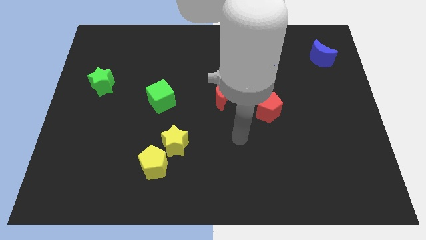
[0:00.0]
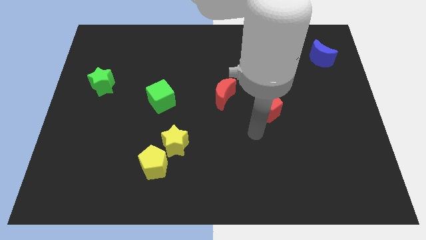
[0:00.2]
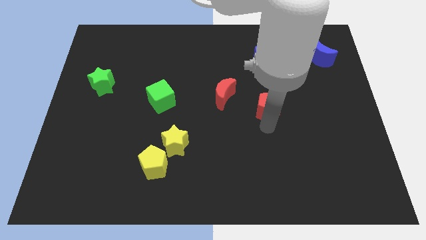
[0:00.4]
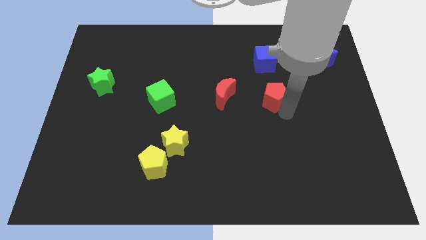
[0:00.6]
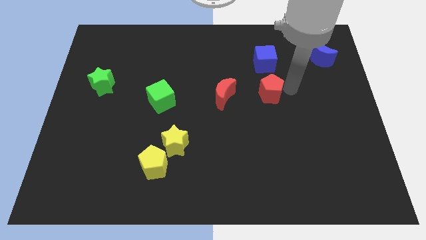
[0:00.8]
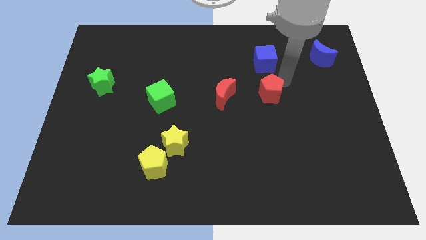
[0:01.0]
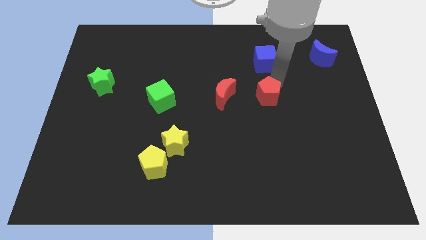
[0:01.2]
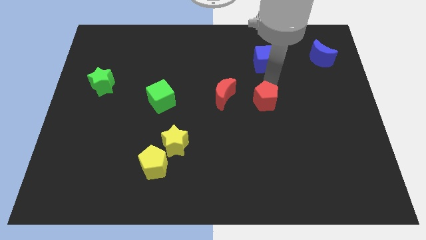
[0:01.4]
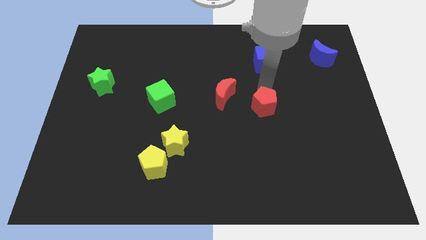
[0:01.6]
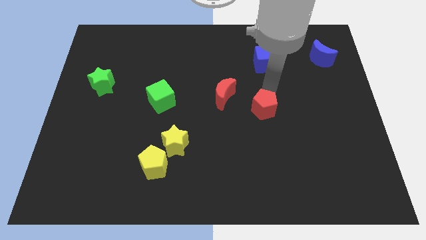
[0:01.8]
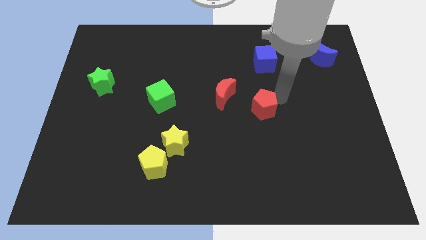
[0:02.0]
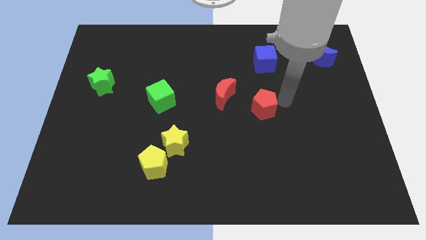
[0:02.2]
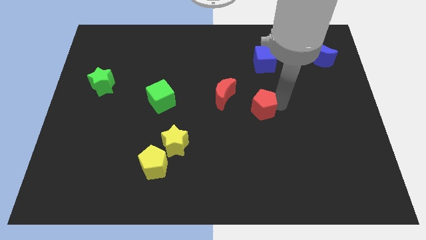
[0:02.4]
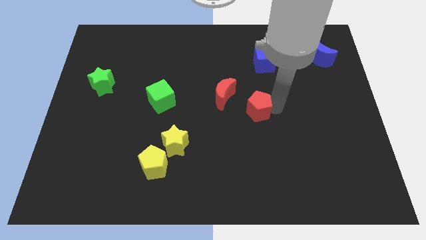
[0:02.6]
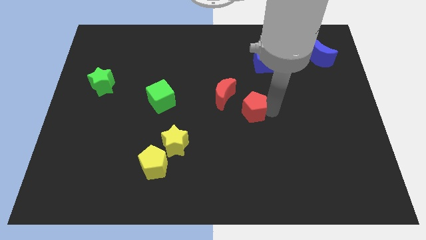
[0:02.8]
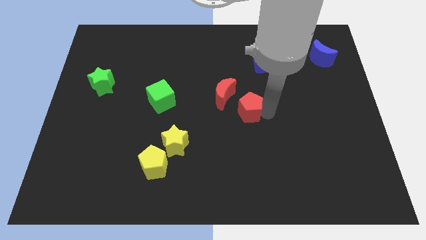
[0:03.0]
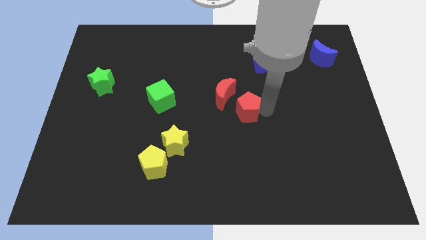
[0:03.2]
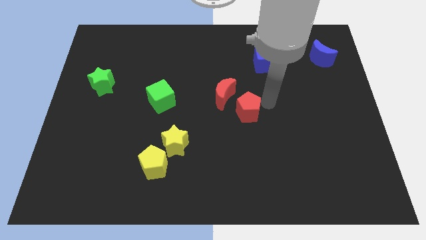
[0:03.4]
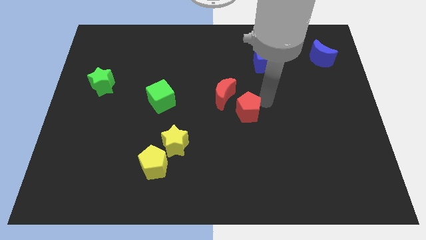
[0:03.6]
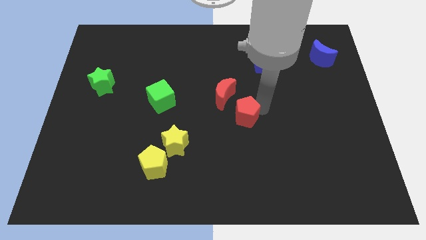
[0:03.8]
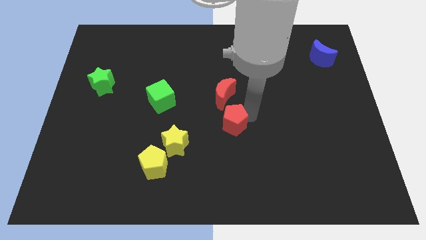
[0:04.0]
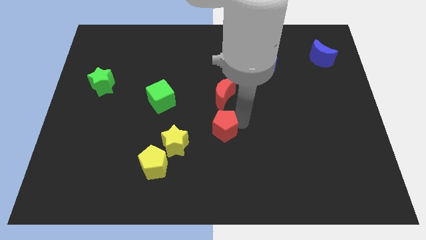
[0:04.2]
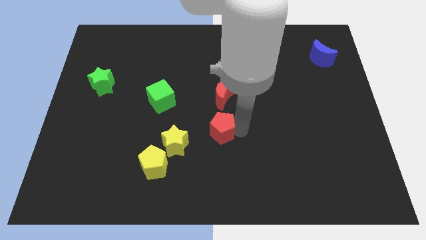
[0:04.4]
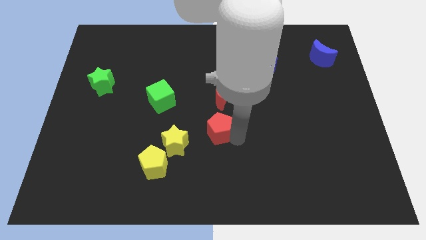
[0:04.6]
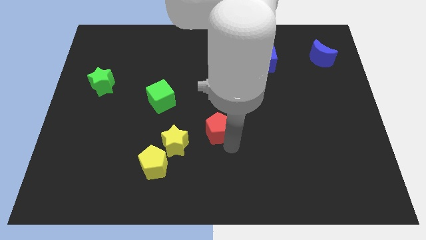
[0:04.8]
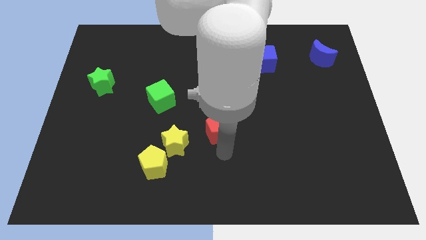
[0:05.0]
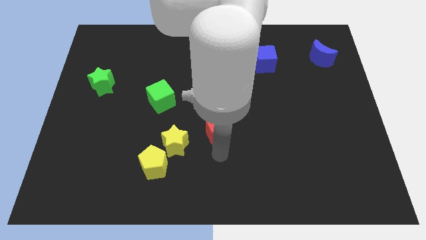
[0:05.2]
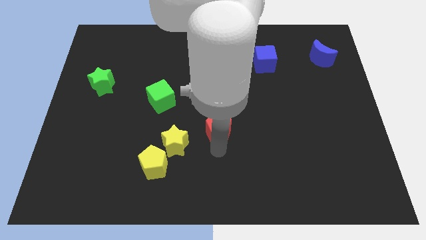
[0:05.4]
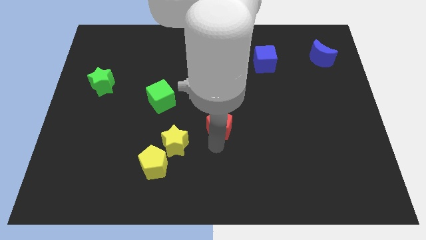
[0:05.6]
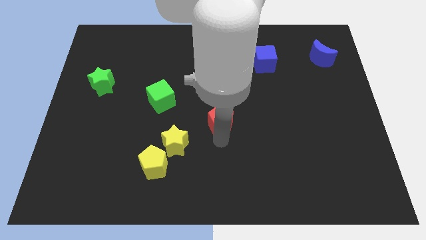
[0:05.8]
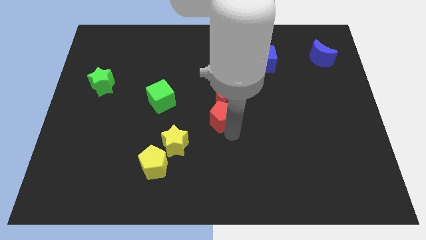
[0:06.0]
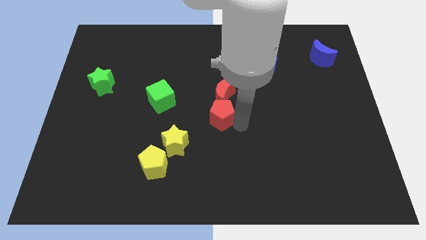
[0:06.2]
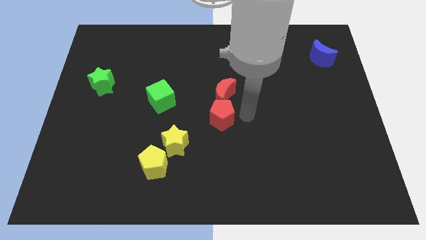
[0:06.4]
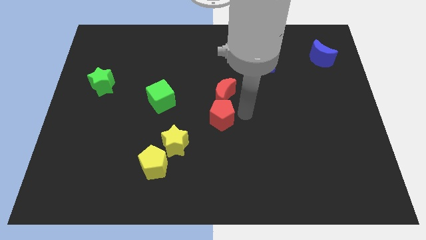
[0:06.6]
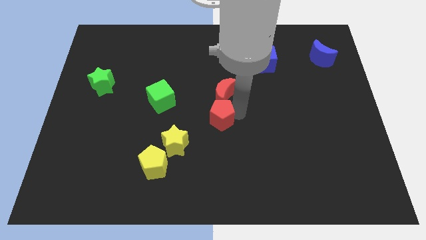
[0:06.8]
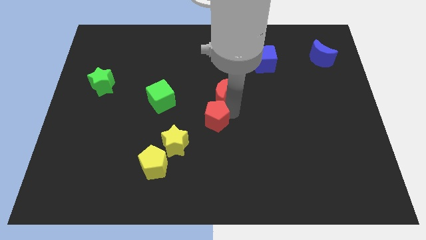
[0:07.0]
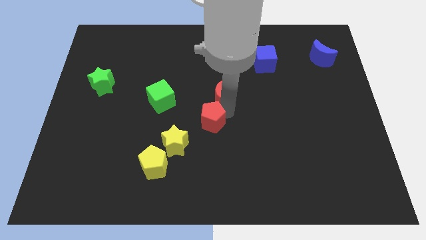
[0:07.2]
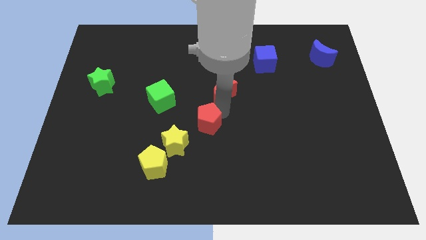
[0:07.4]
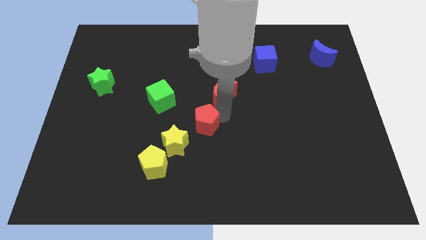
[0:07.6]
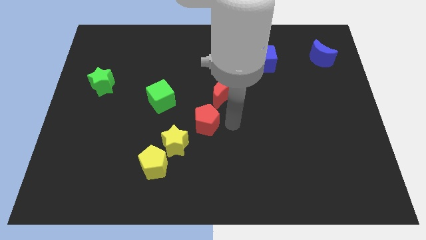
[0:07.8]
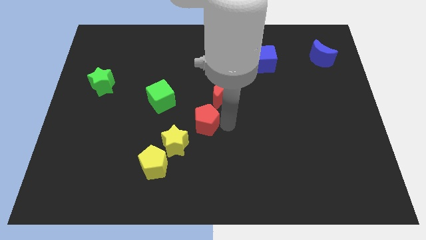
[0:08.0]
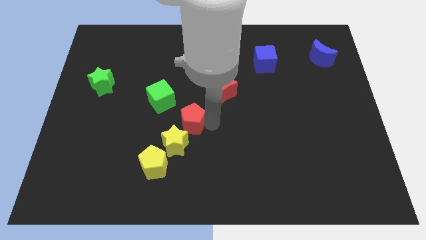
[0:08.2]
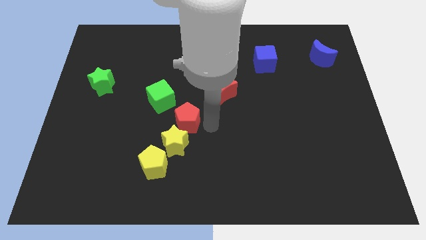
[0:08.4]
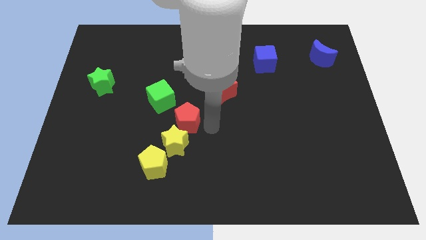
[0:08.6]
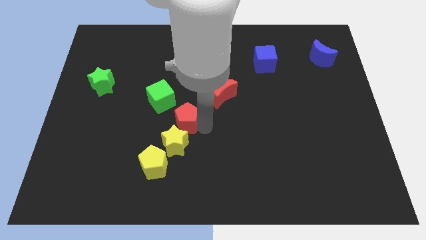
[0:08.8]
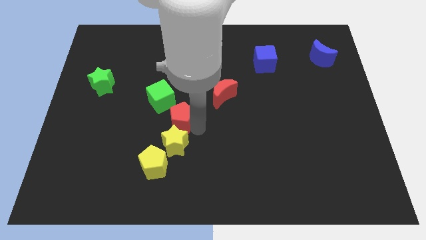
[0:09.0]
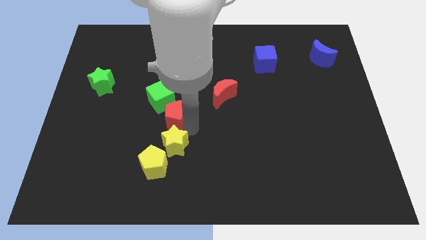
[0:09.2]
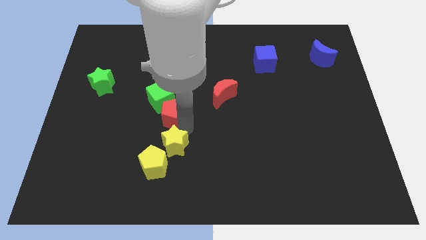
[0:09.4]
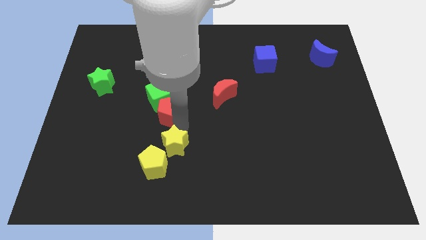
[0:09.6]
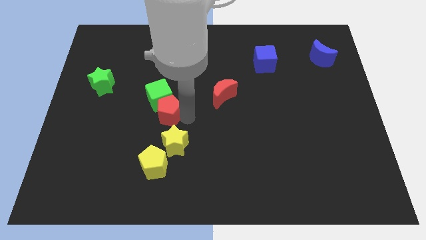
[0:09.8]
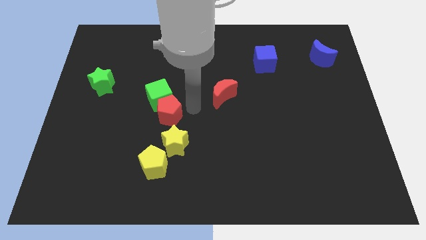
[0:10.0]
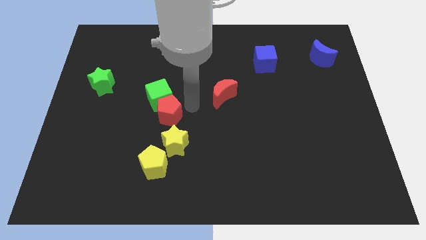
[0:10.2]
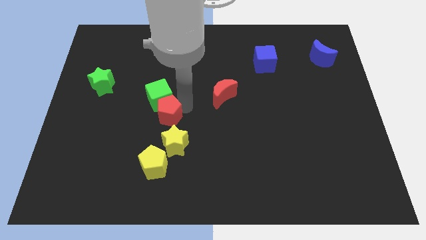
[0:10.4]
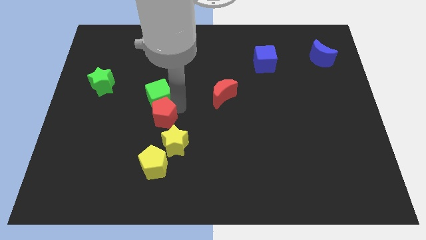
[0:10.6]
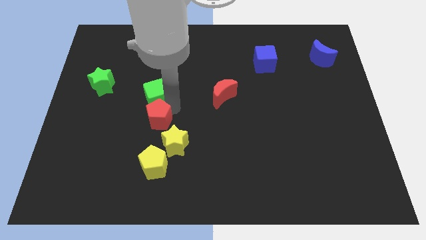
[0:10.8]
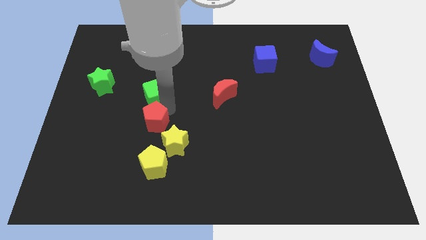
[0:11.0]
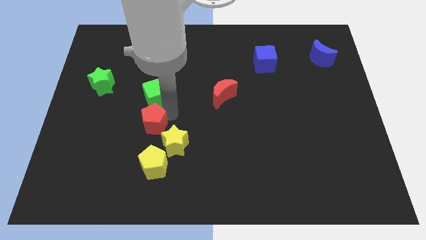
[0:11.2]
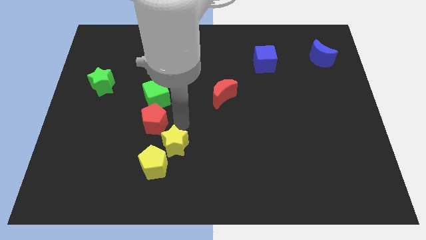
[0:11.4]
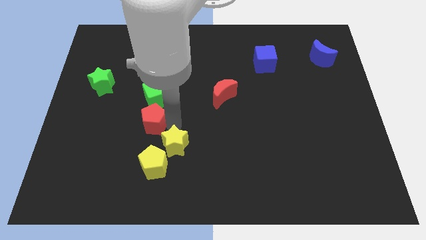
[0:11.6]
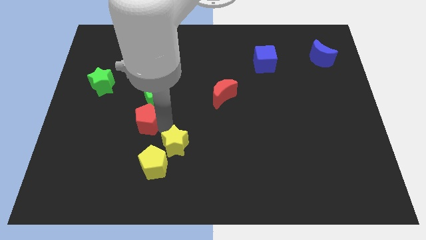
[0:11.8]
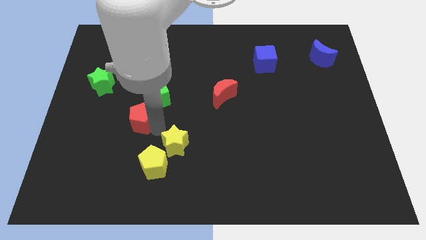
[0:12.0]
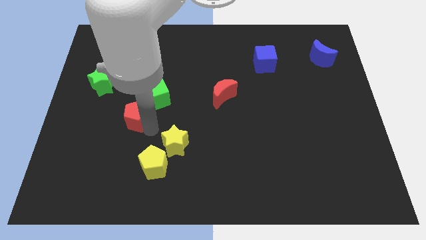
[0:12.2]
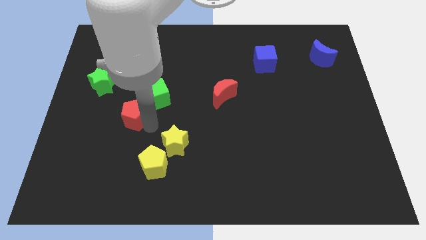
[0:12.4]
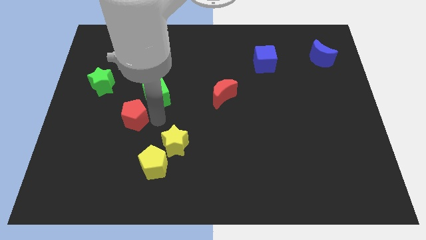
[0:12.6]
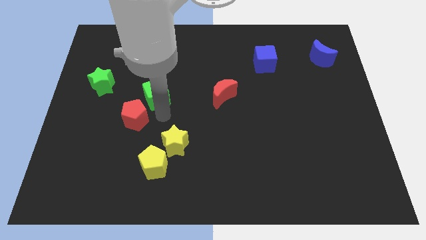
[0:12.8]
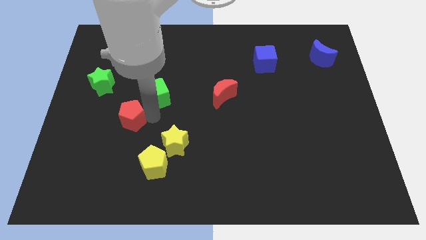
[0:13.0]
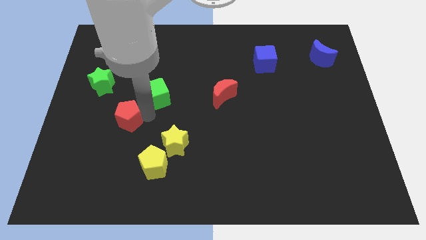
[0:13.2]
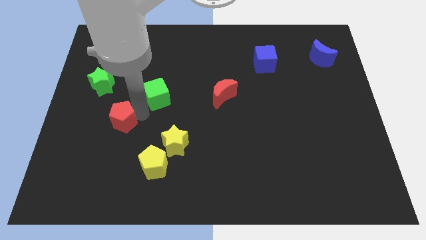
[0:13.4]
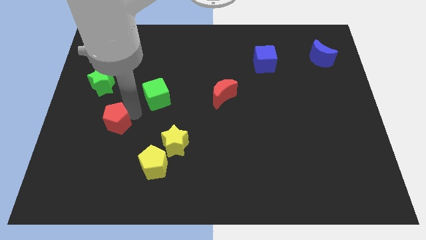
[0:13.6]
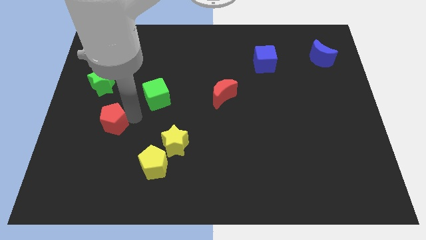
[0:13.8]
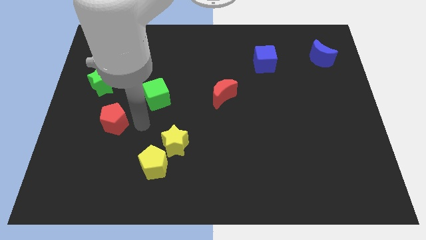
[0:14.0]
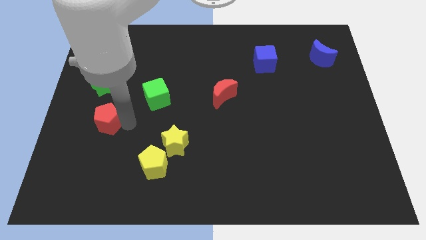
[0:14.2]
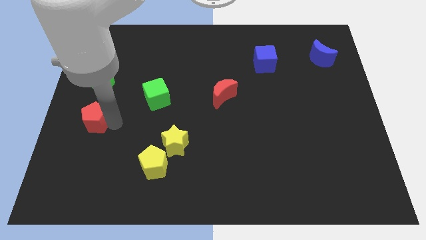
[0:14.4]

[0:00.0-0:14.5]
put the red pentagon to the center left
